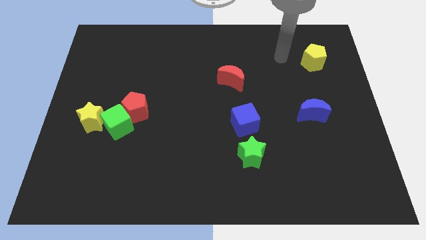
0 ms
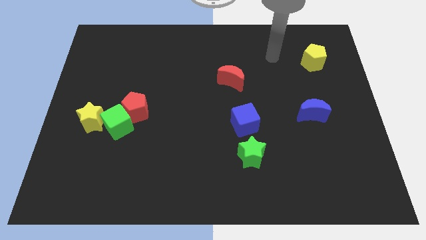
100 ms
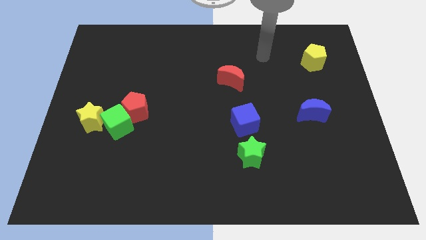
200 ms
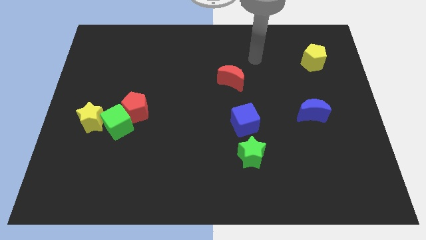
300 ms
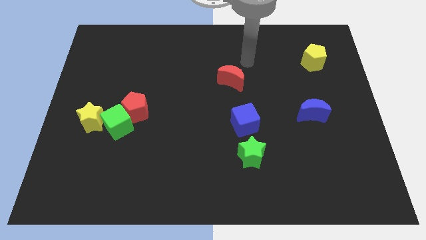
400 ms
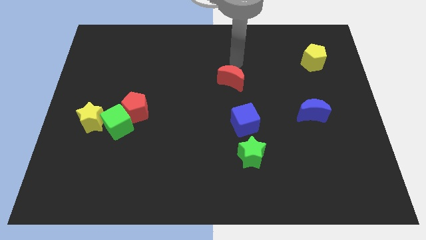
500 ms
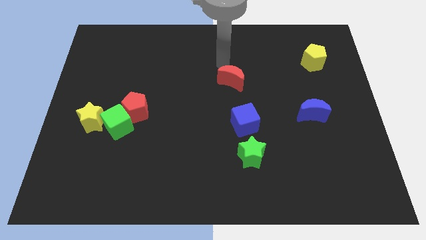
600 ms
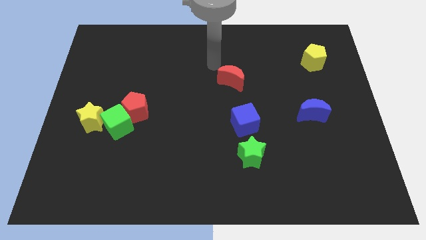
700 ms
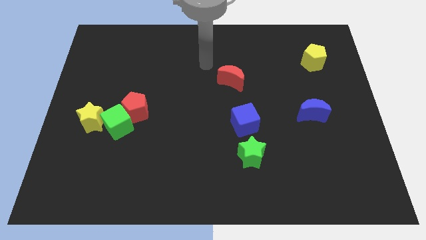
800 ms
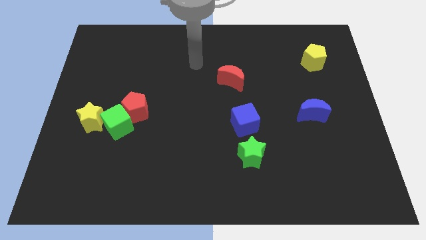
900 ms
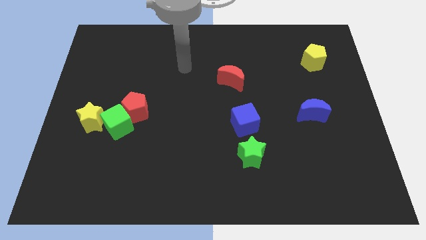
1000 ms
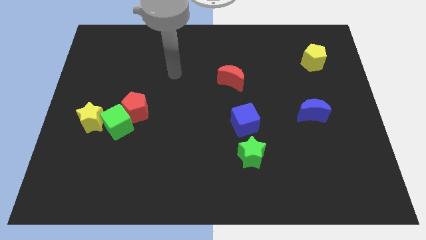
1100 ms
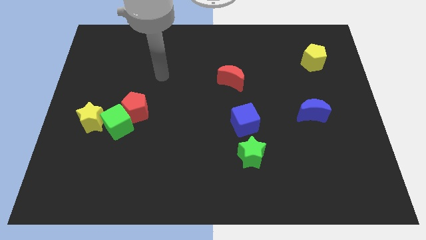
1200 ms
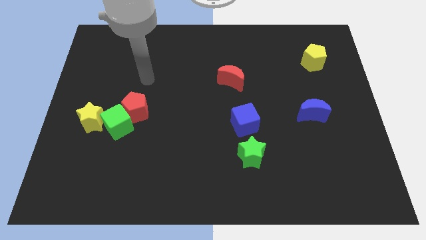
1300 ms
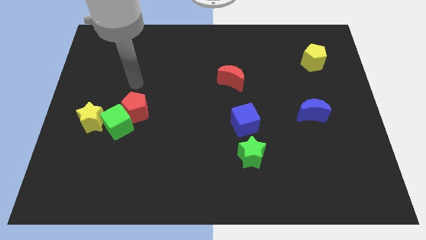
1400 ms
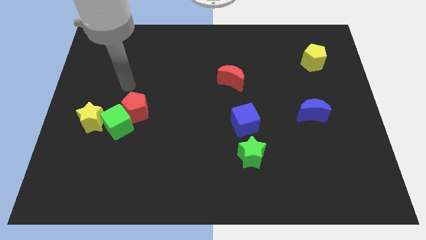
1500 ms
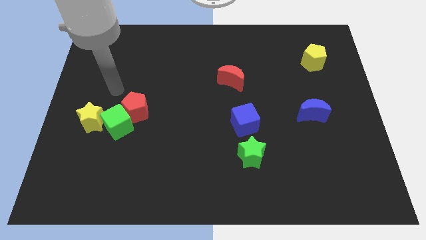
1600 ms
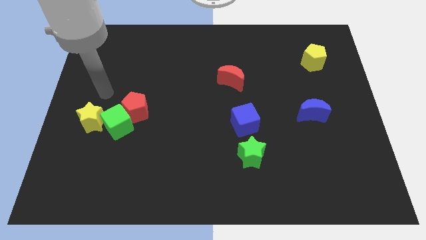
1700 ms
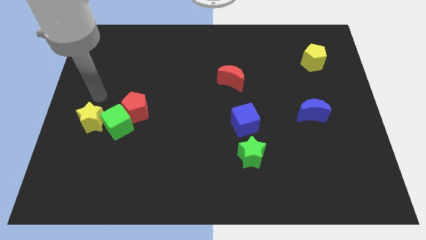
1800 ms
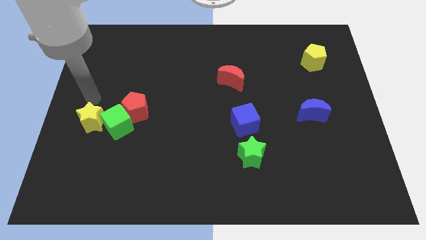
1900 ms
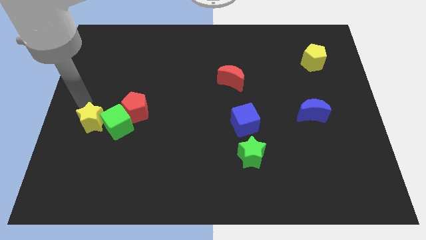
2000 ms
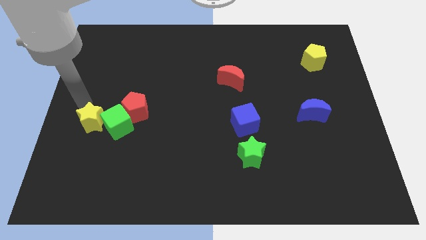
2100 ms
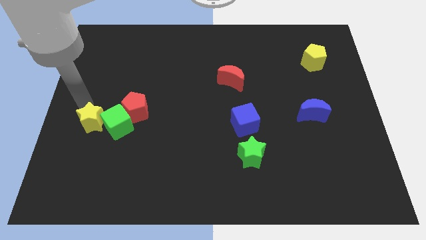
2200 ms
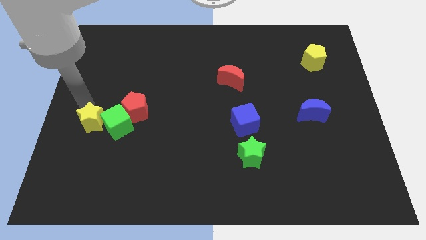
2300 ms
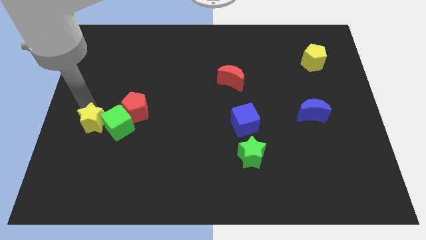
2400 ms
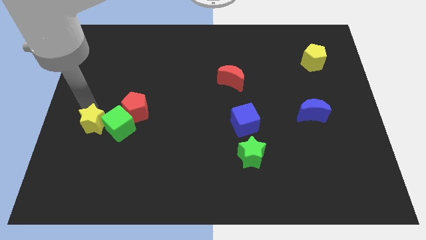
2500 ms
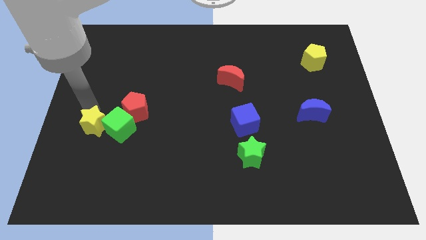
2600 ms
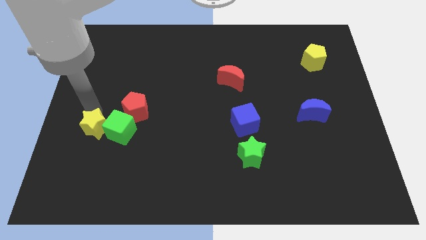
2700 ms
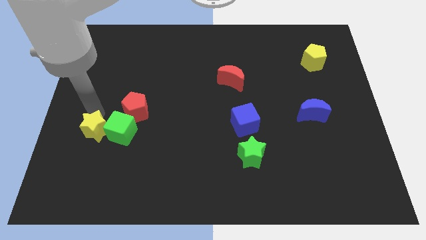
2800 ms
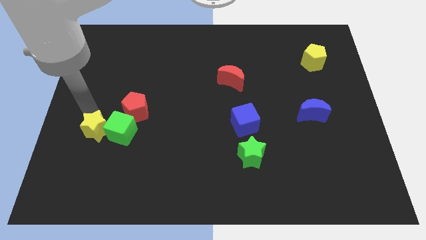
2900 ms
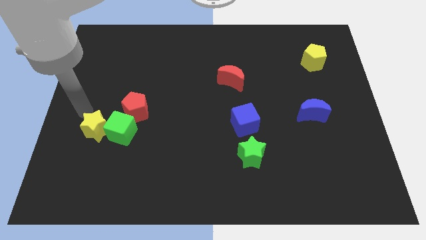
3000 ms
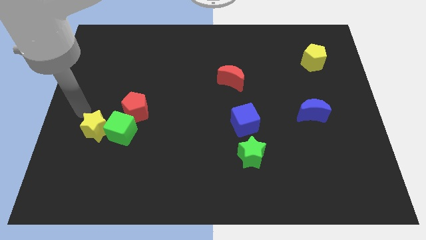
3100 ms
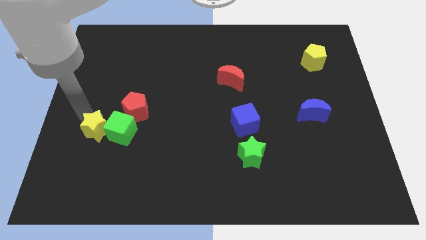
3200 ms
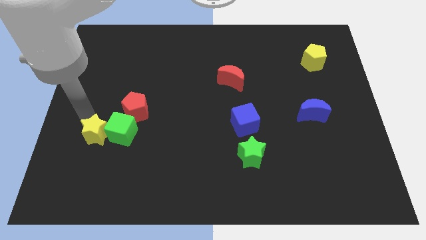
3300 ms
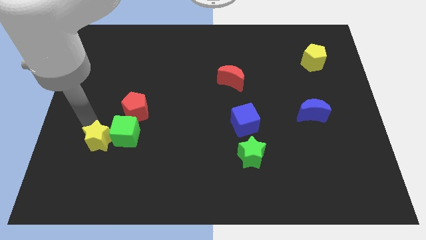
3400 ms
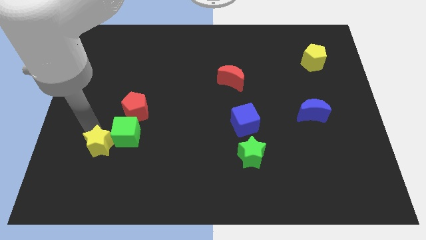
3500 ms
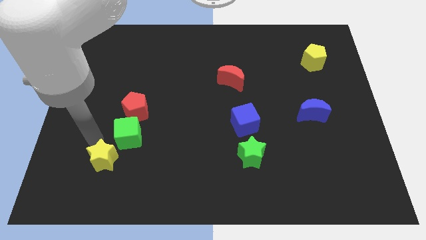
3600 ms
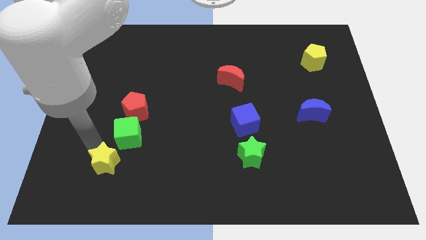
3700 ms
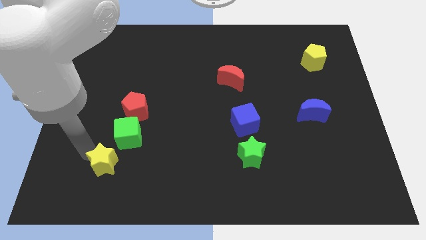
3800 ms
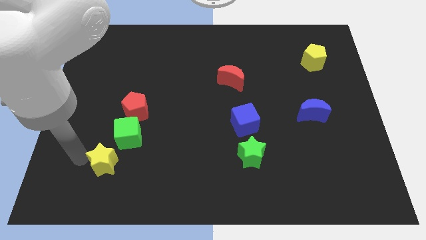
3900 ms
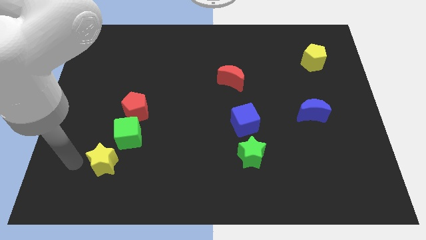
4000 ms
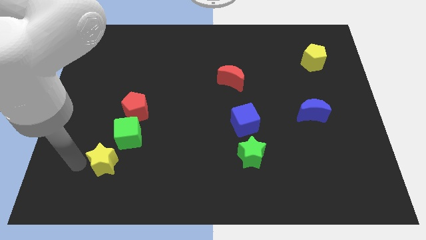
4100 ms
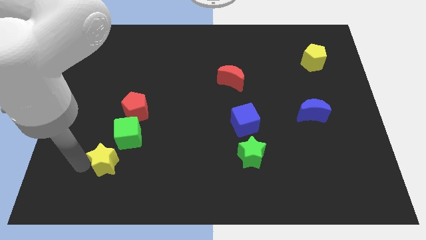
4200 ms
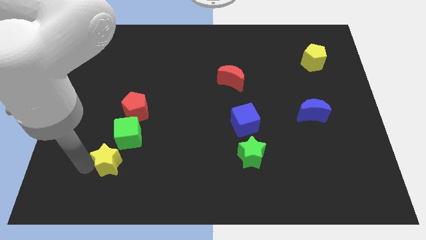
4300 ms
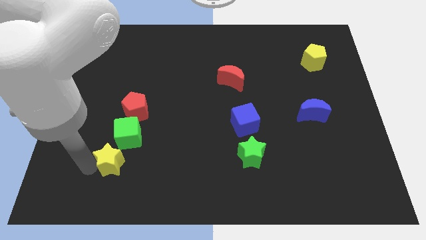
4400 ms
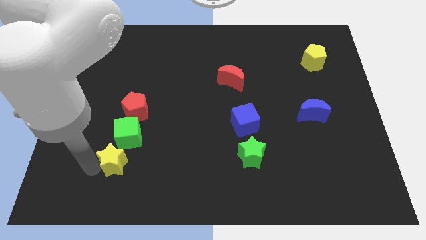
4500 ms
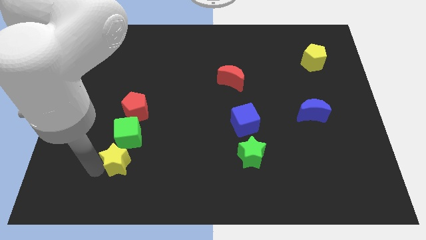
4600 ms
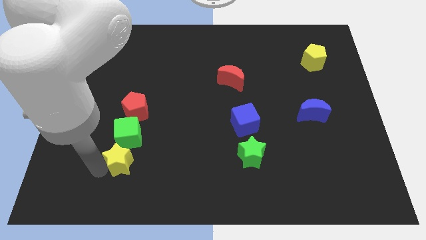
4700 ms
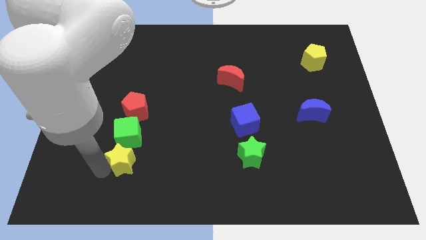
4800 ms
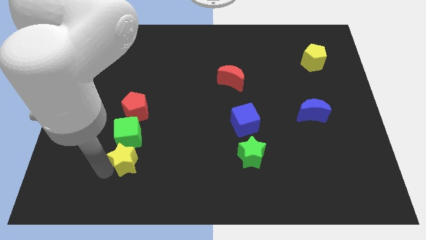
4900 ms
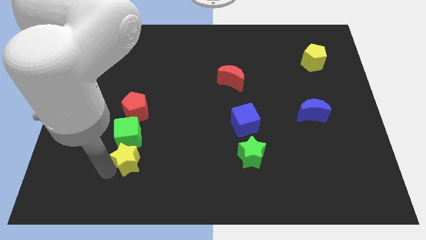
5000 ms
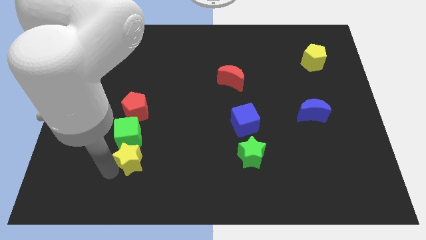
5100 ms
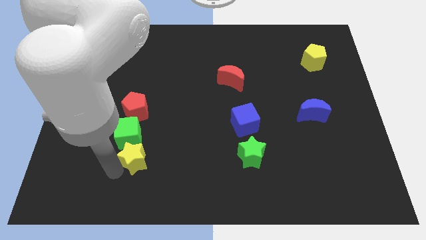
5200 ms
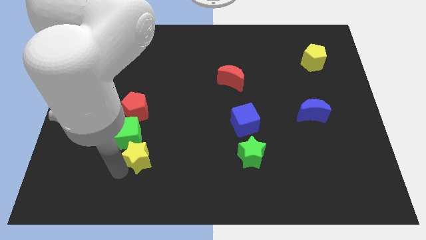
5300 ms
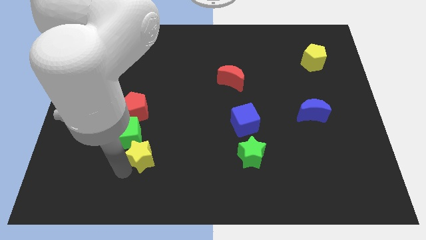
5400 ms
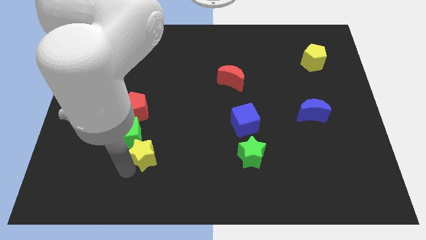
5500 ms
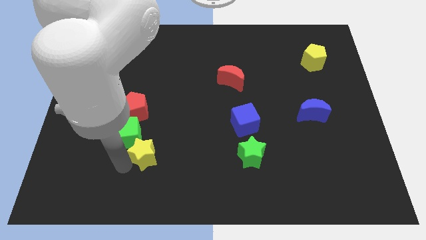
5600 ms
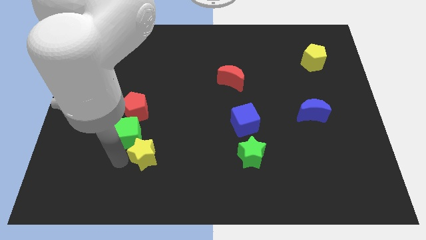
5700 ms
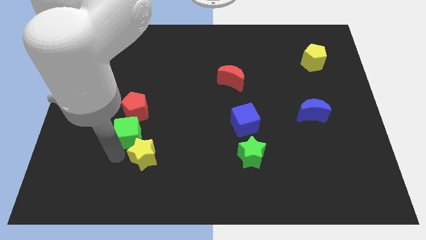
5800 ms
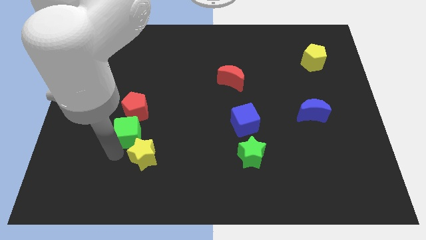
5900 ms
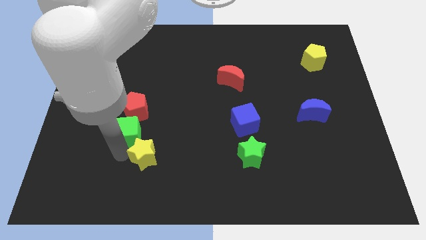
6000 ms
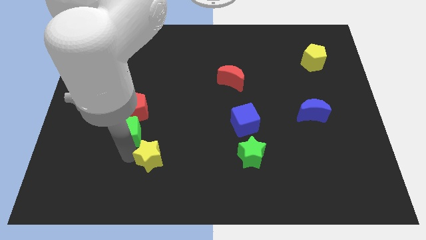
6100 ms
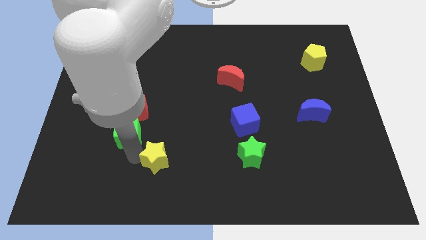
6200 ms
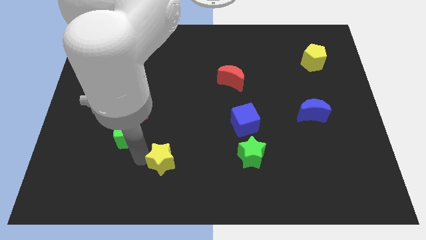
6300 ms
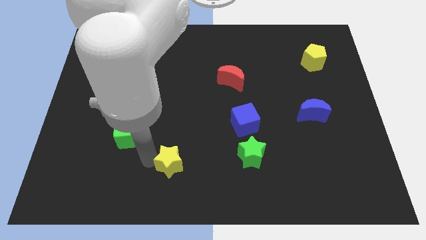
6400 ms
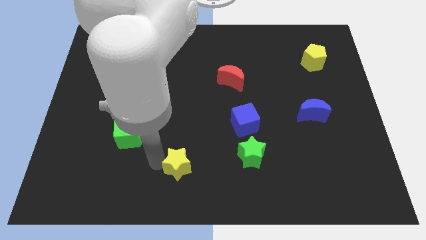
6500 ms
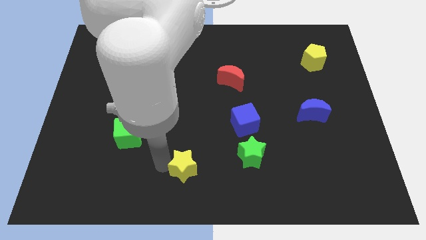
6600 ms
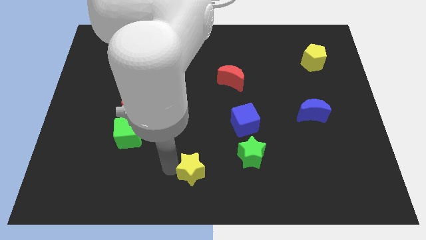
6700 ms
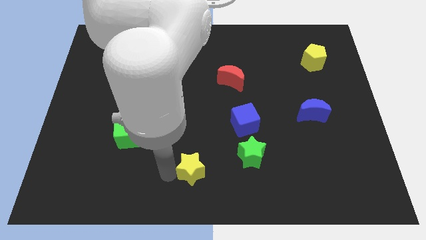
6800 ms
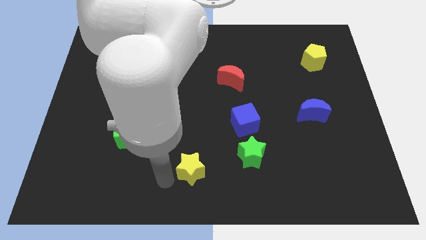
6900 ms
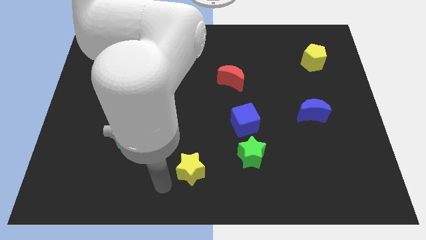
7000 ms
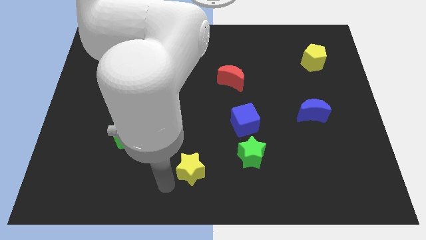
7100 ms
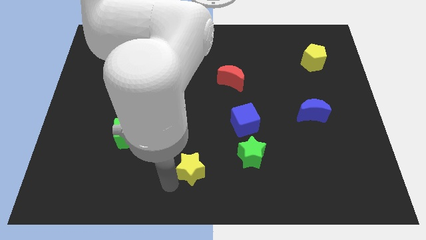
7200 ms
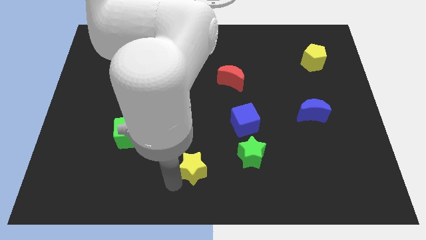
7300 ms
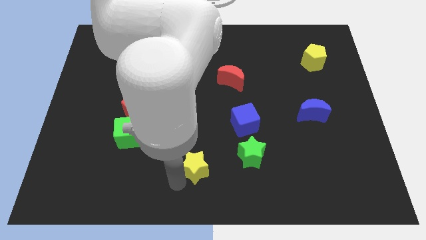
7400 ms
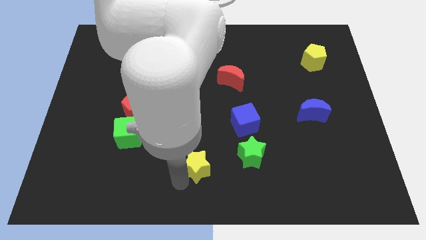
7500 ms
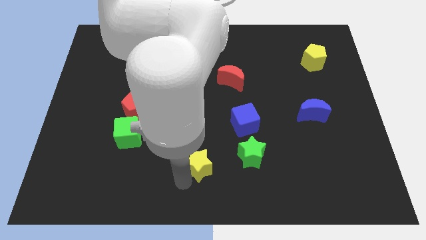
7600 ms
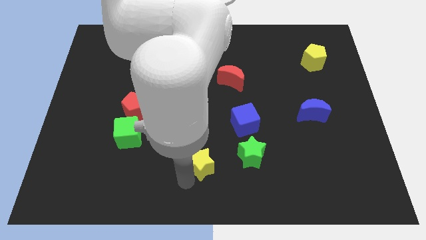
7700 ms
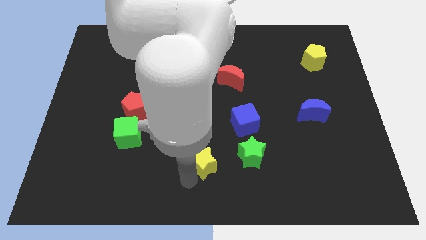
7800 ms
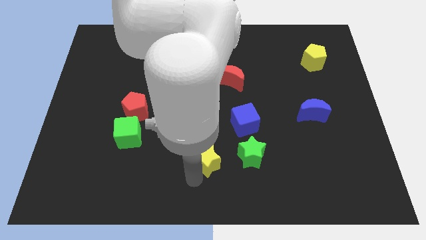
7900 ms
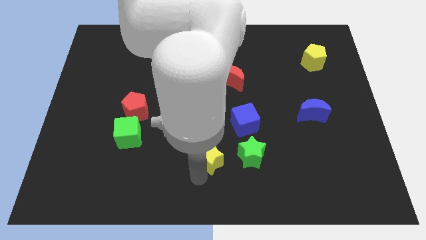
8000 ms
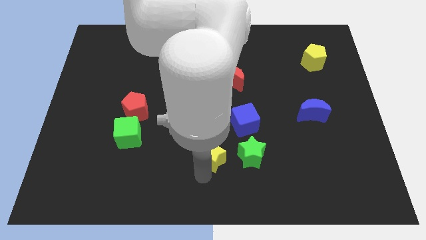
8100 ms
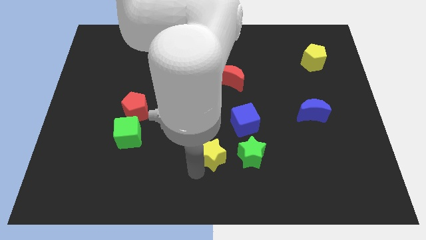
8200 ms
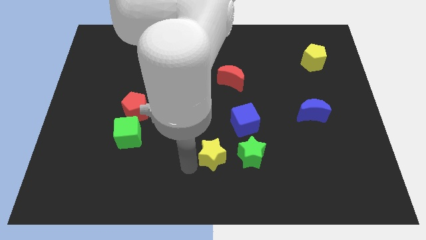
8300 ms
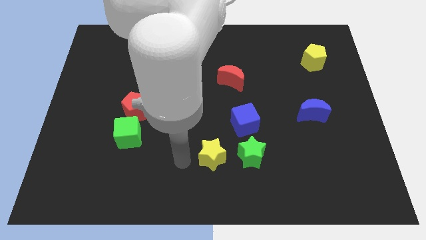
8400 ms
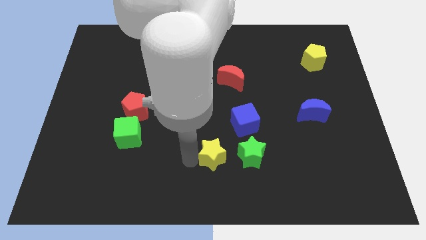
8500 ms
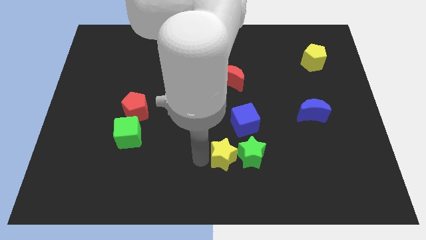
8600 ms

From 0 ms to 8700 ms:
put the yellow star next to the green star
